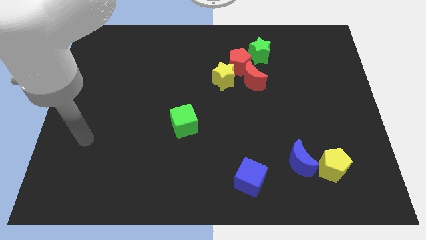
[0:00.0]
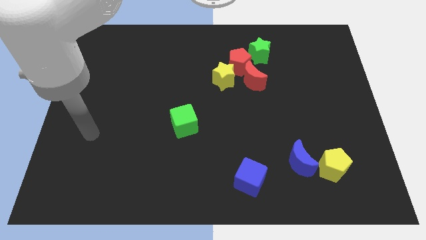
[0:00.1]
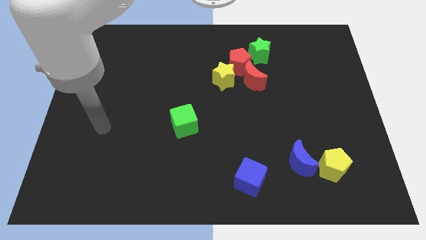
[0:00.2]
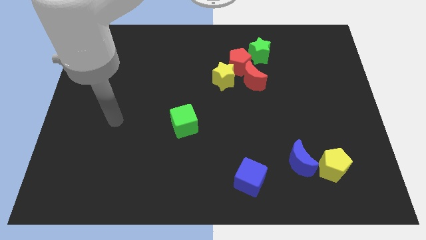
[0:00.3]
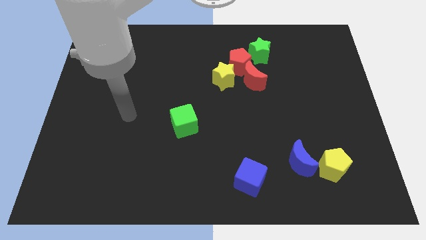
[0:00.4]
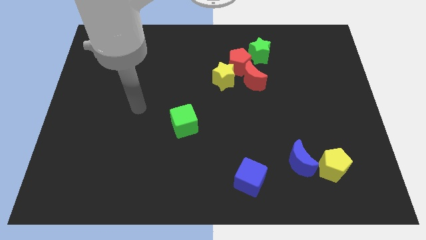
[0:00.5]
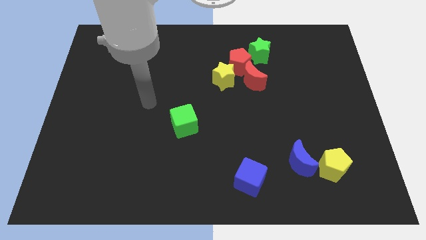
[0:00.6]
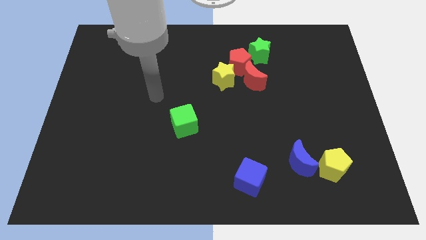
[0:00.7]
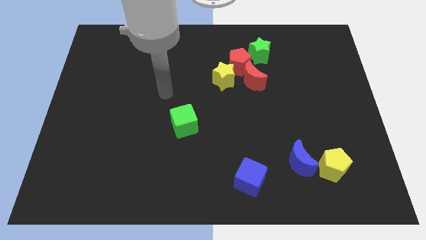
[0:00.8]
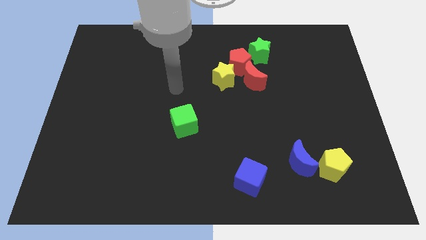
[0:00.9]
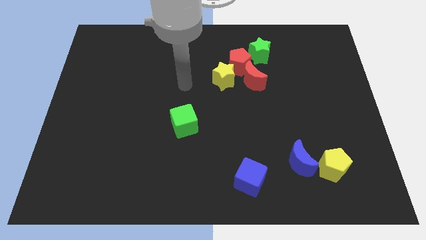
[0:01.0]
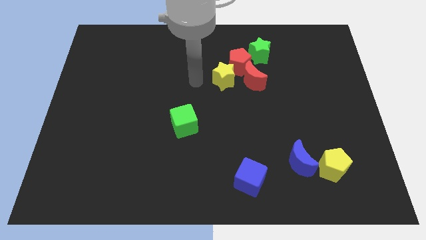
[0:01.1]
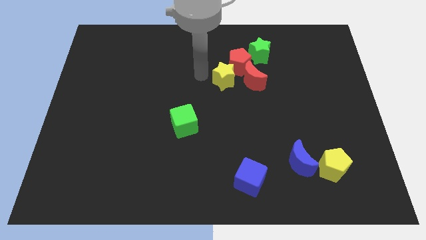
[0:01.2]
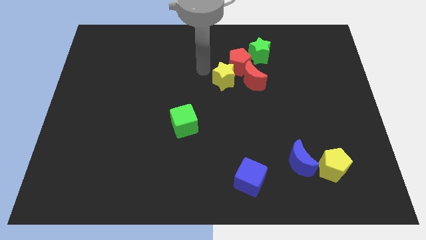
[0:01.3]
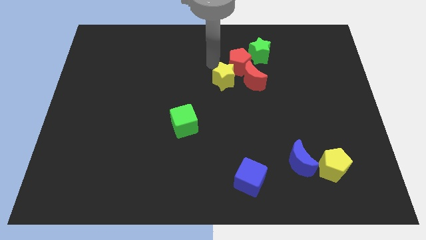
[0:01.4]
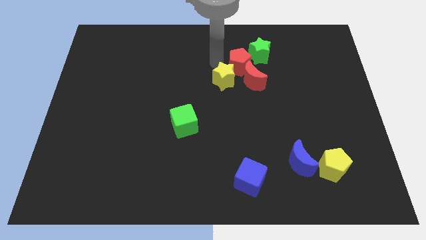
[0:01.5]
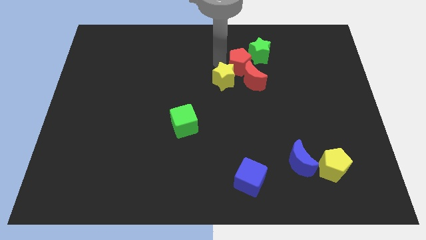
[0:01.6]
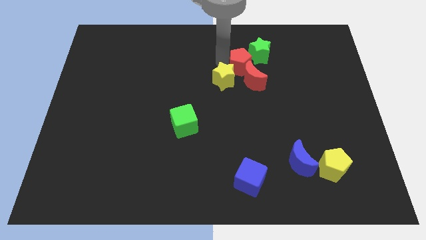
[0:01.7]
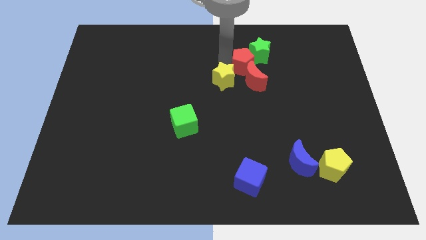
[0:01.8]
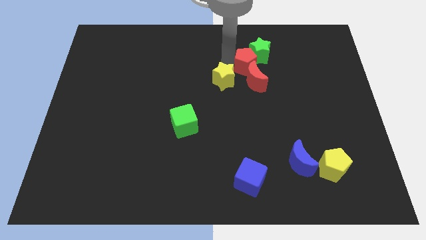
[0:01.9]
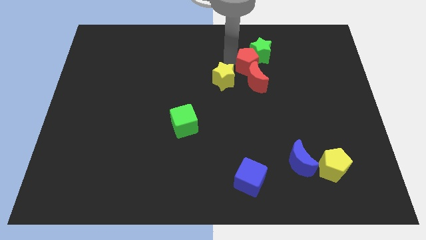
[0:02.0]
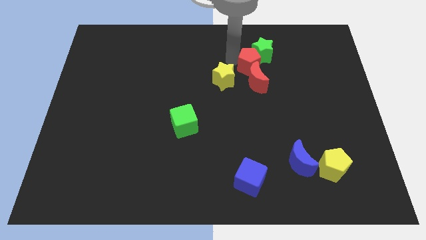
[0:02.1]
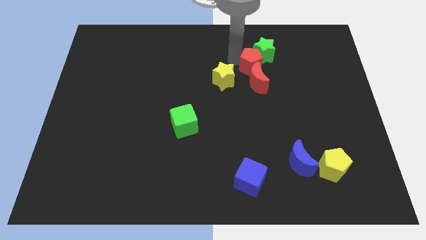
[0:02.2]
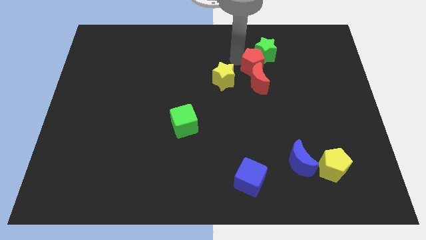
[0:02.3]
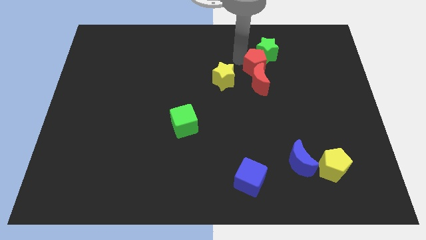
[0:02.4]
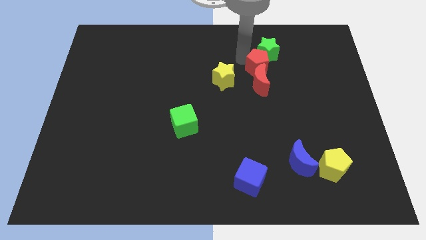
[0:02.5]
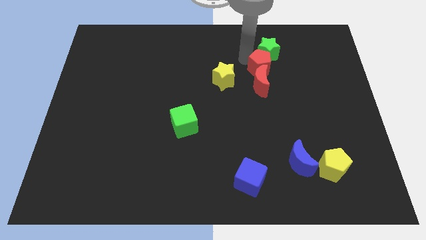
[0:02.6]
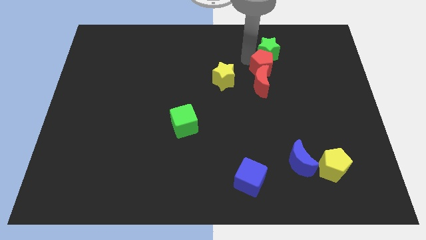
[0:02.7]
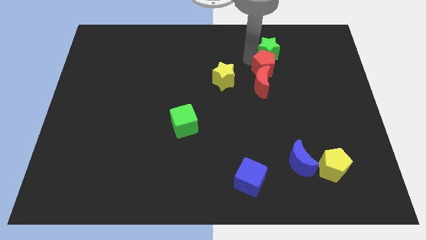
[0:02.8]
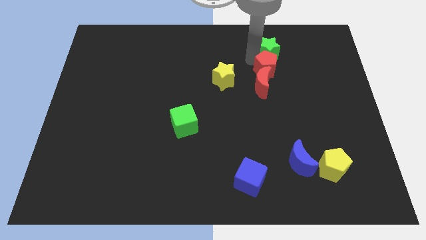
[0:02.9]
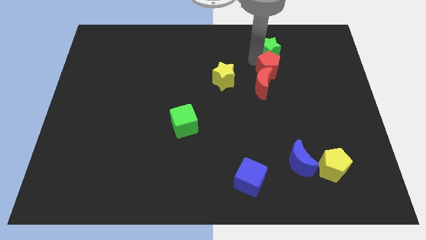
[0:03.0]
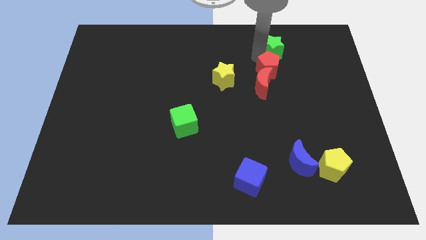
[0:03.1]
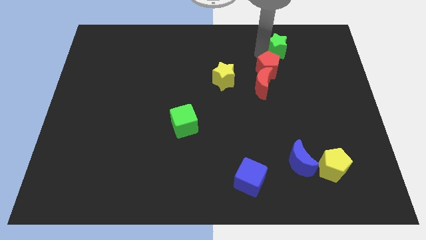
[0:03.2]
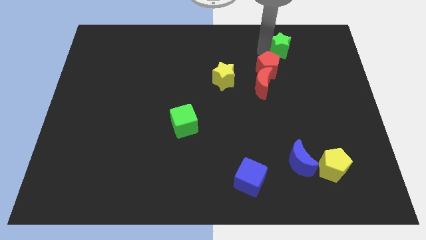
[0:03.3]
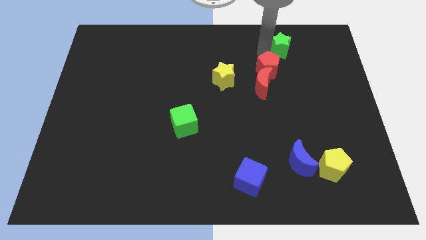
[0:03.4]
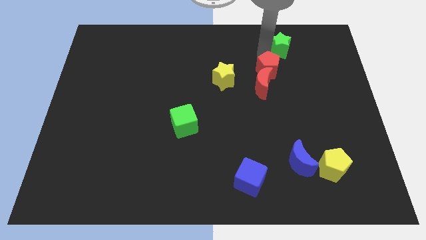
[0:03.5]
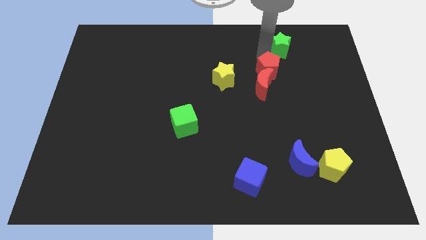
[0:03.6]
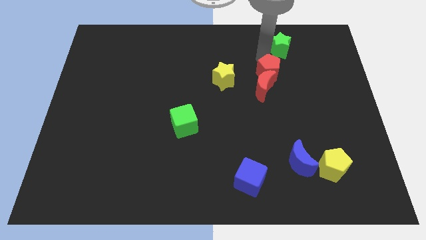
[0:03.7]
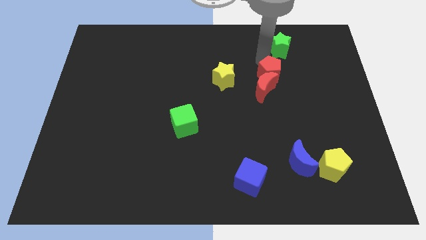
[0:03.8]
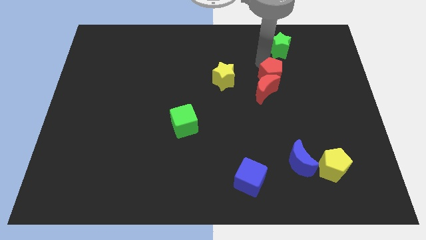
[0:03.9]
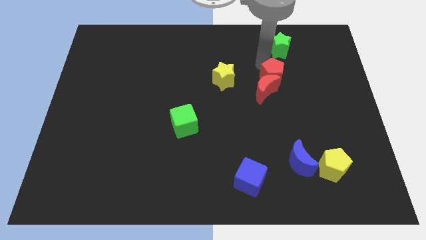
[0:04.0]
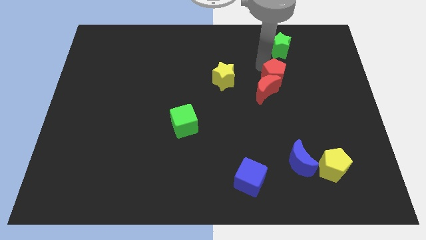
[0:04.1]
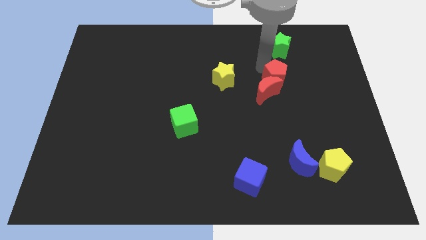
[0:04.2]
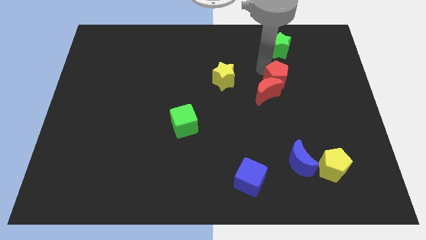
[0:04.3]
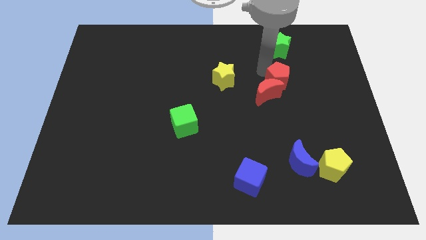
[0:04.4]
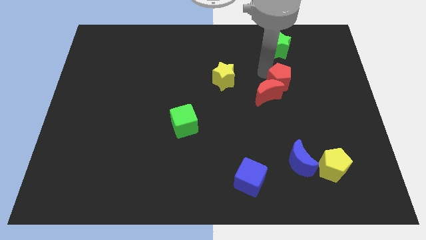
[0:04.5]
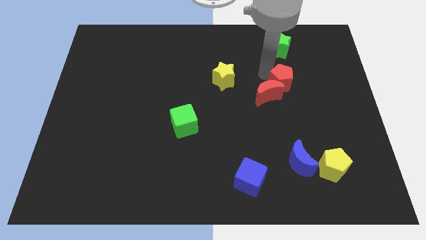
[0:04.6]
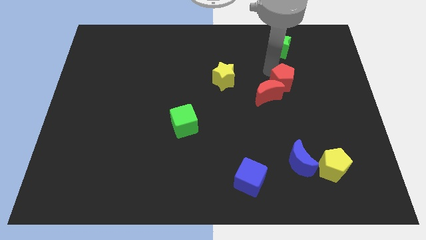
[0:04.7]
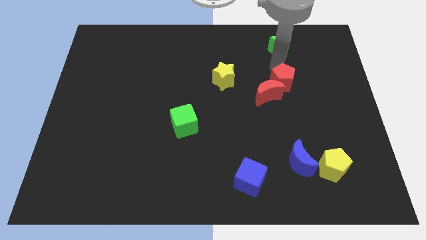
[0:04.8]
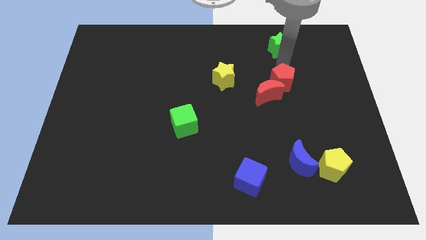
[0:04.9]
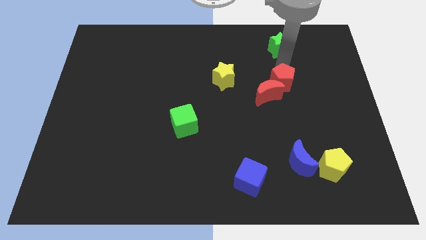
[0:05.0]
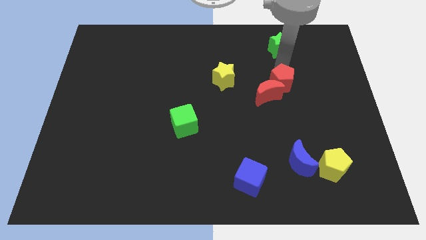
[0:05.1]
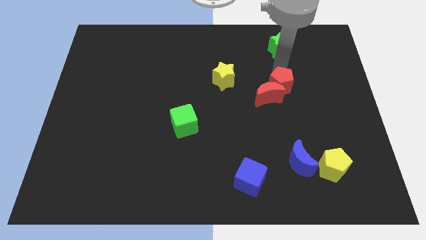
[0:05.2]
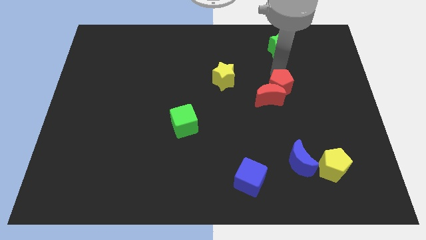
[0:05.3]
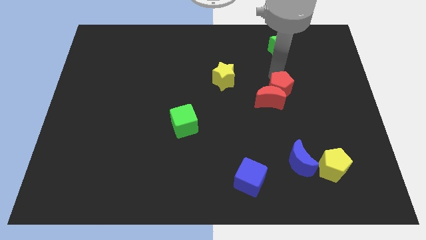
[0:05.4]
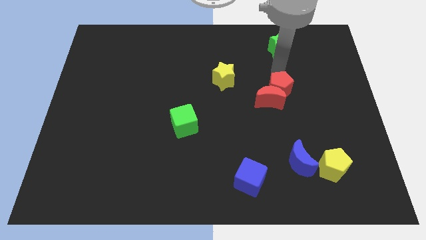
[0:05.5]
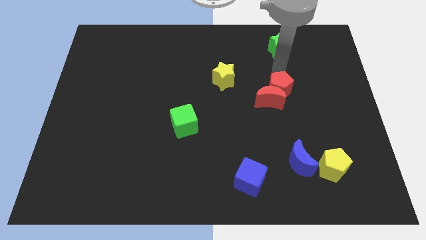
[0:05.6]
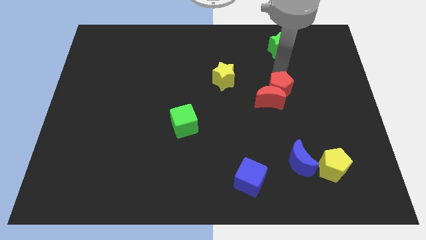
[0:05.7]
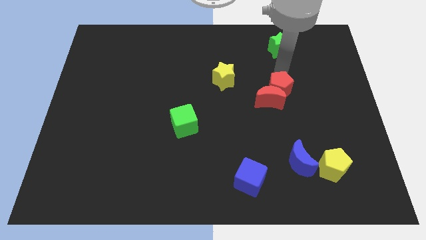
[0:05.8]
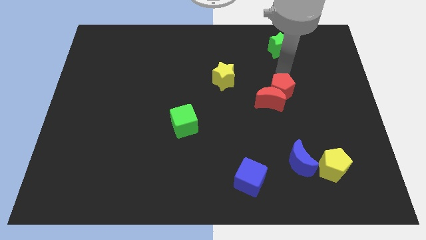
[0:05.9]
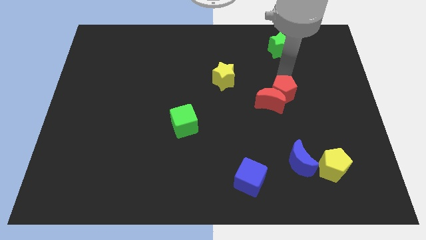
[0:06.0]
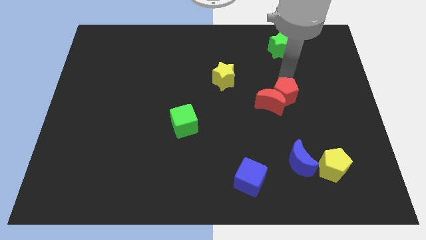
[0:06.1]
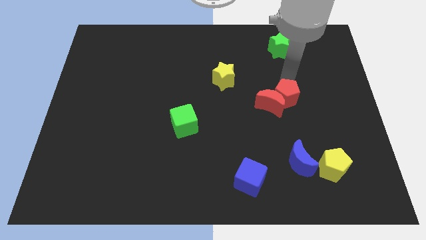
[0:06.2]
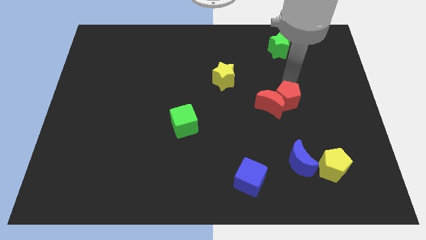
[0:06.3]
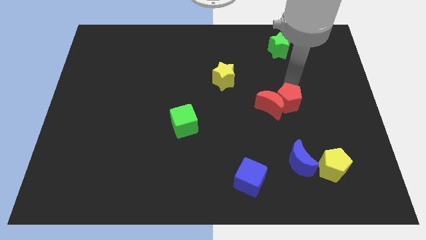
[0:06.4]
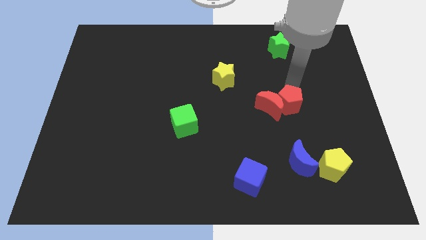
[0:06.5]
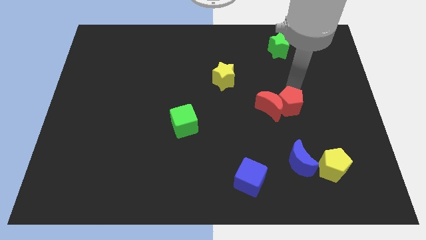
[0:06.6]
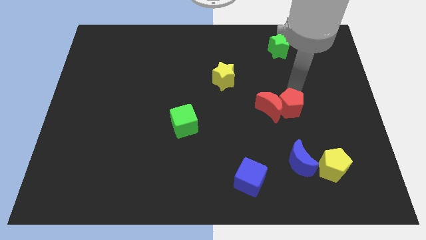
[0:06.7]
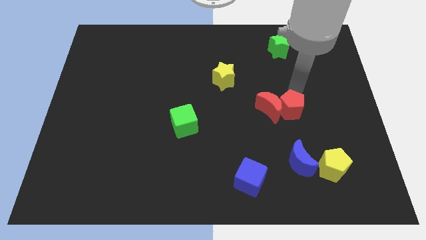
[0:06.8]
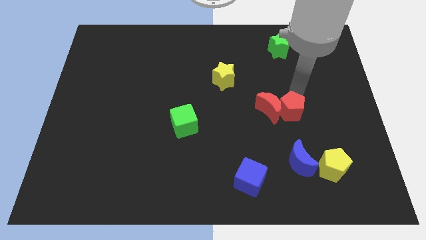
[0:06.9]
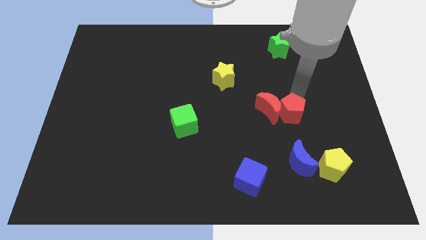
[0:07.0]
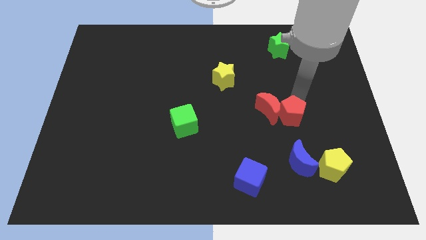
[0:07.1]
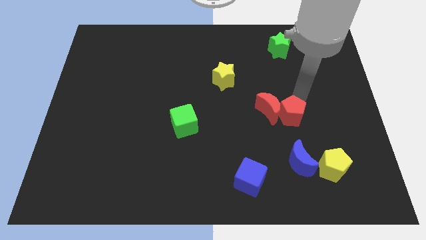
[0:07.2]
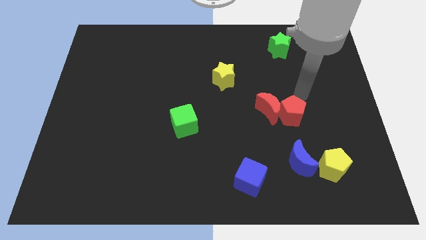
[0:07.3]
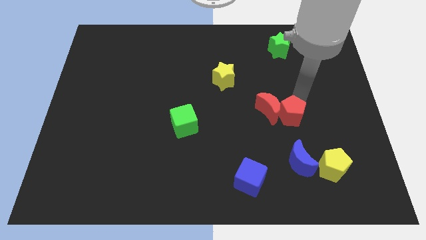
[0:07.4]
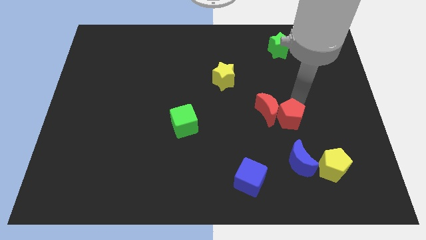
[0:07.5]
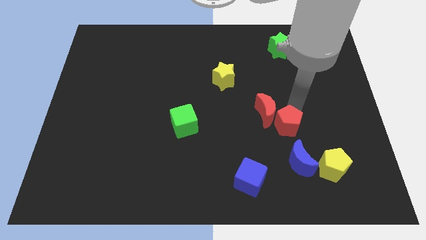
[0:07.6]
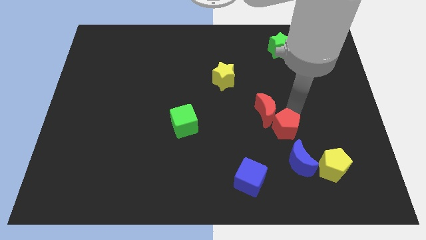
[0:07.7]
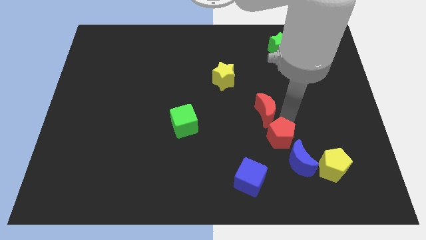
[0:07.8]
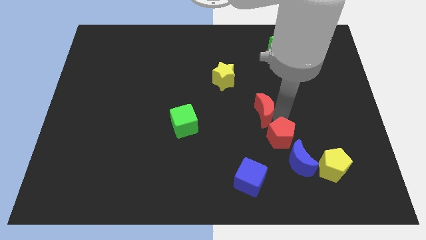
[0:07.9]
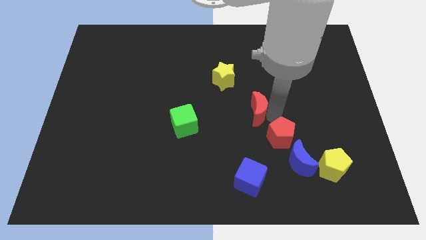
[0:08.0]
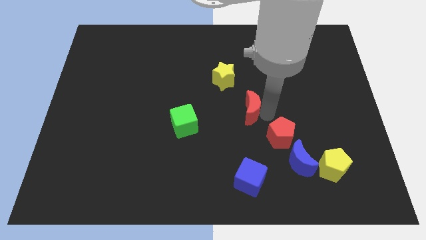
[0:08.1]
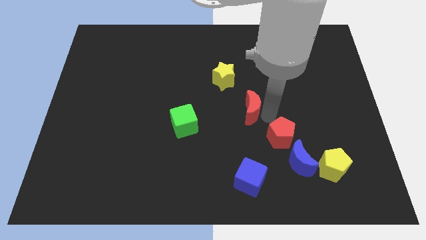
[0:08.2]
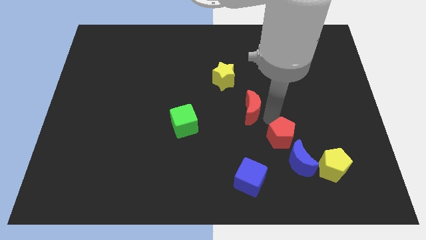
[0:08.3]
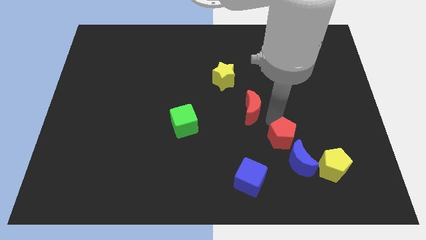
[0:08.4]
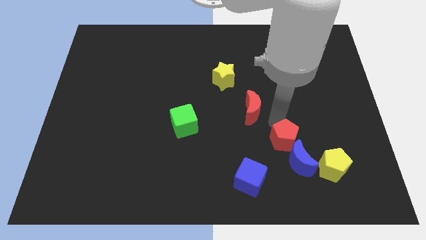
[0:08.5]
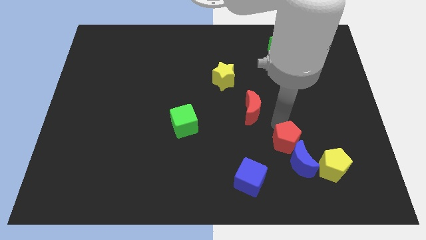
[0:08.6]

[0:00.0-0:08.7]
put the red pentagon to the blue moon
